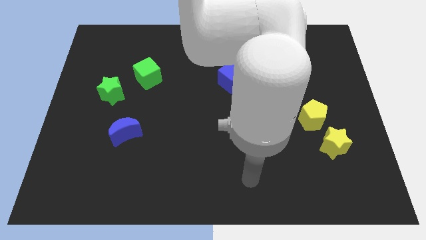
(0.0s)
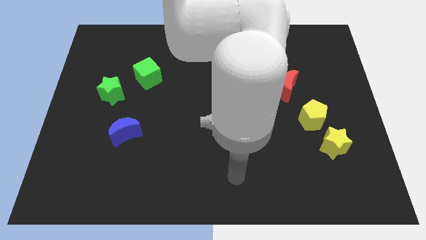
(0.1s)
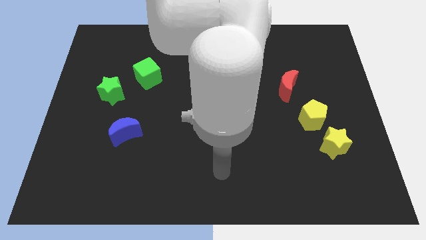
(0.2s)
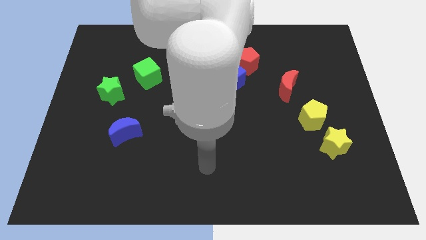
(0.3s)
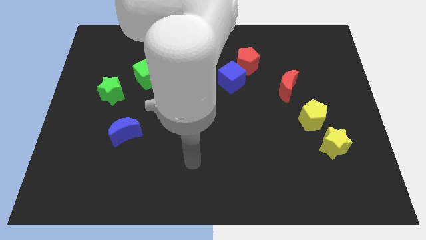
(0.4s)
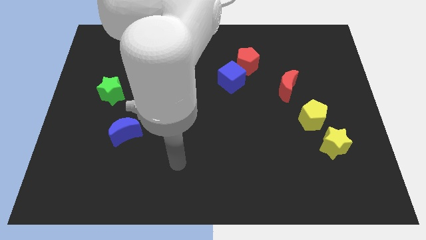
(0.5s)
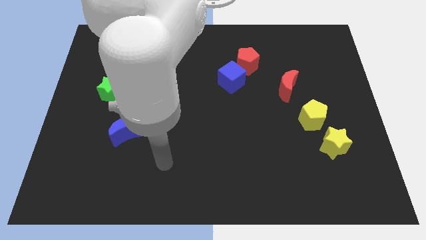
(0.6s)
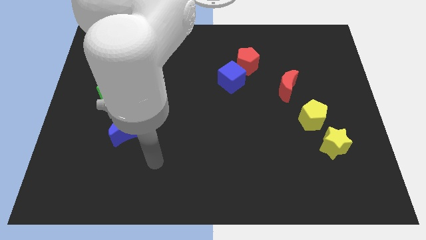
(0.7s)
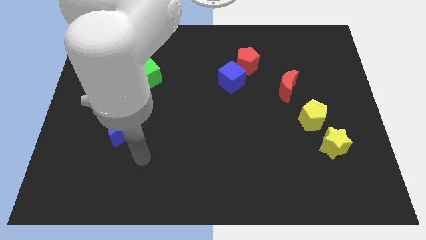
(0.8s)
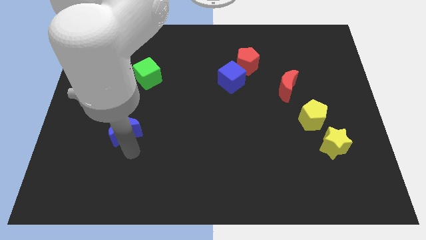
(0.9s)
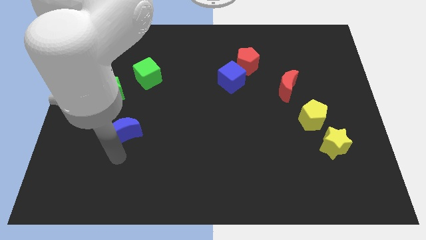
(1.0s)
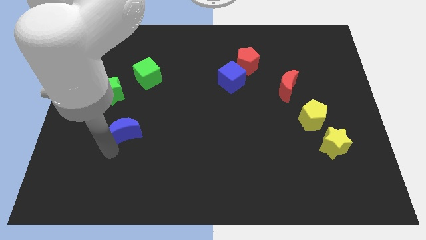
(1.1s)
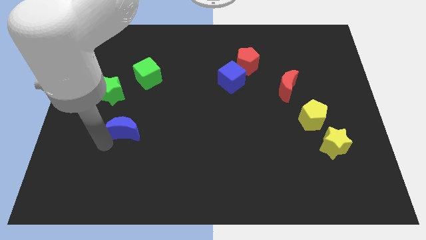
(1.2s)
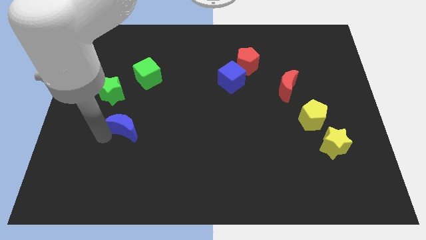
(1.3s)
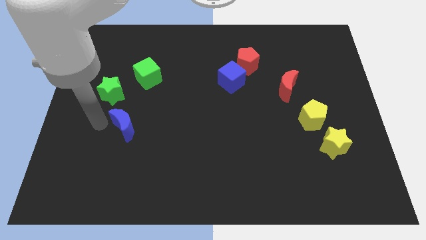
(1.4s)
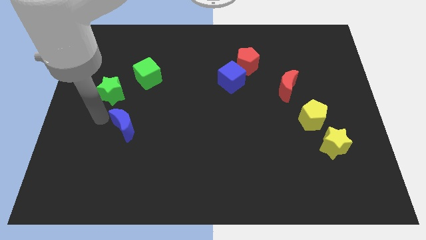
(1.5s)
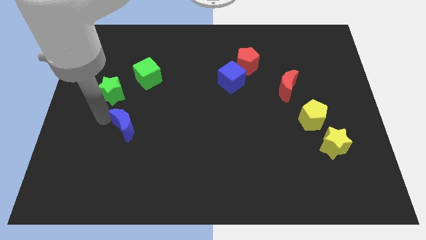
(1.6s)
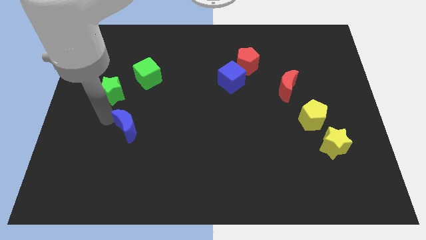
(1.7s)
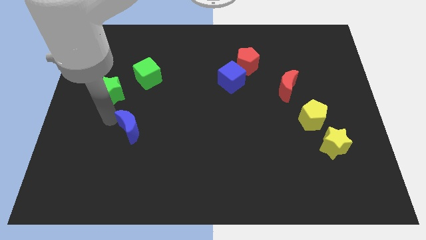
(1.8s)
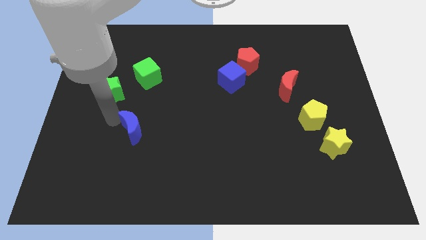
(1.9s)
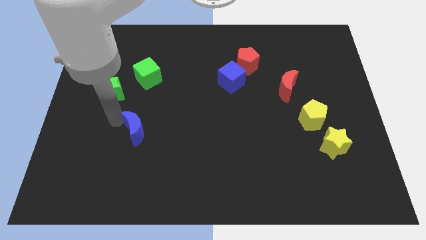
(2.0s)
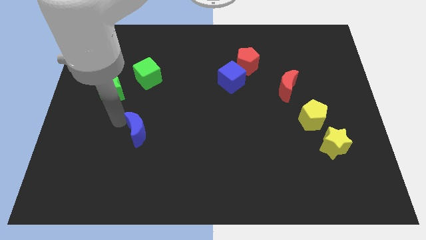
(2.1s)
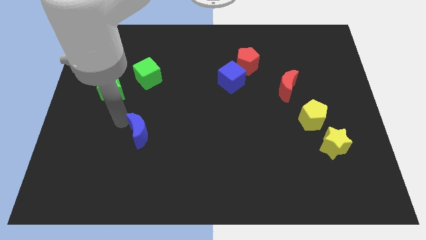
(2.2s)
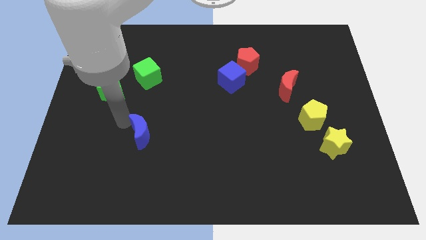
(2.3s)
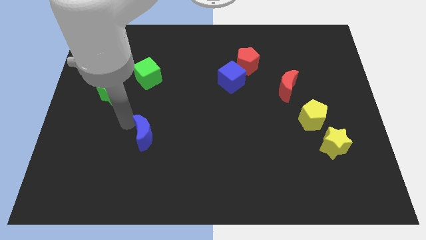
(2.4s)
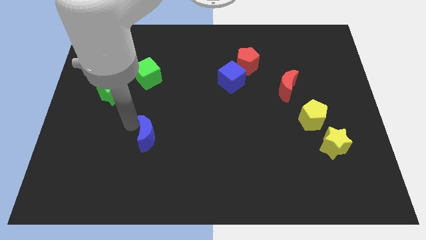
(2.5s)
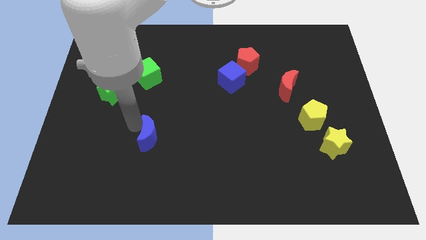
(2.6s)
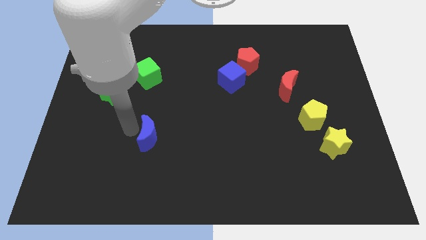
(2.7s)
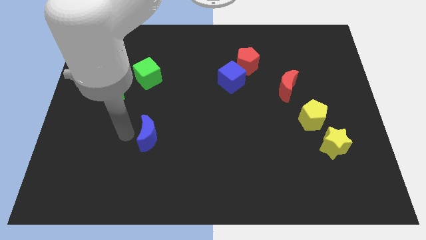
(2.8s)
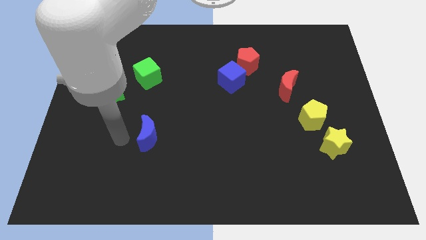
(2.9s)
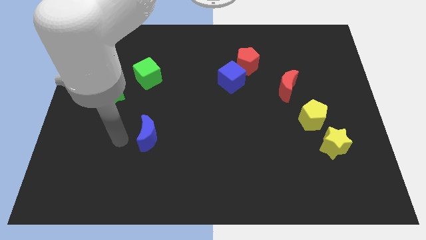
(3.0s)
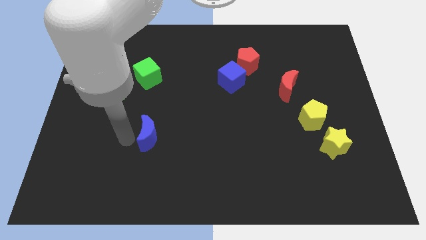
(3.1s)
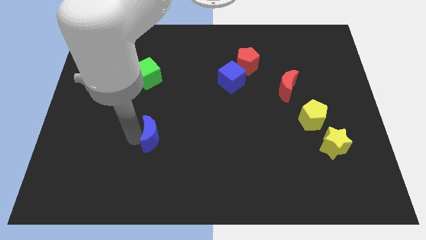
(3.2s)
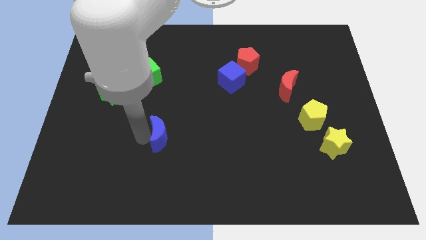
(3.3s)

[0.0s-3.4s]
slide the blue moon a bit to the right

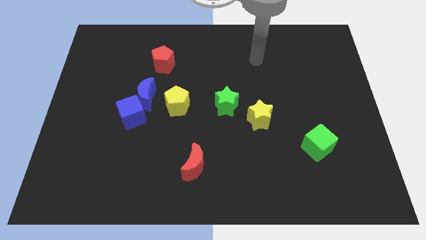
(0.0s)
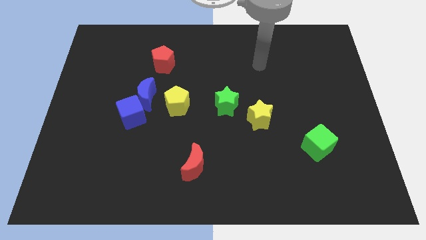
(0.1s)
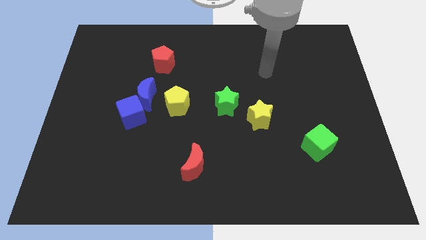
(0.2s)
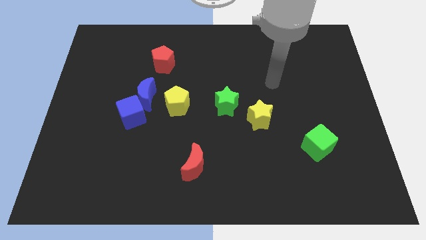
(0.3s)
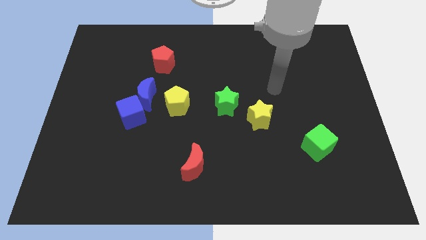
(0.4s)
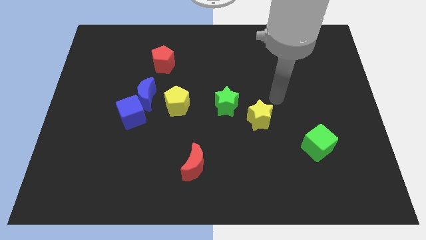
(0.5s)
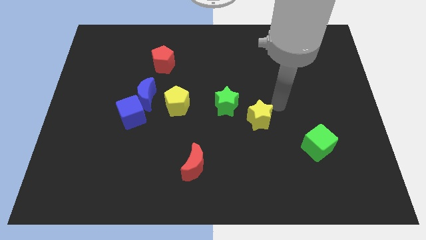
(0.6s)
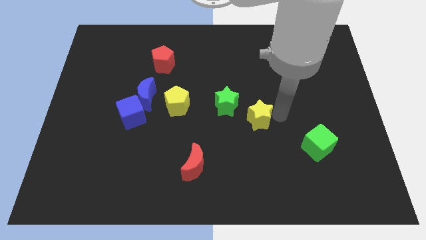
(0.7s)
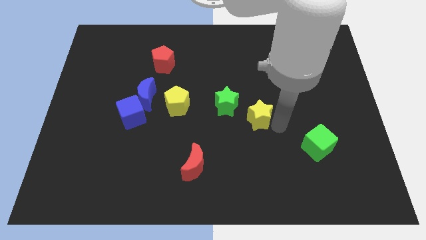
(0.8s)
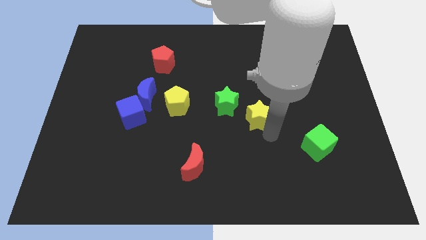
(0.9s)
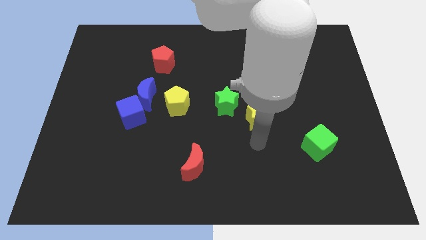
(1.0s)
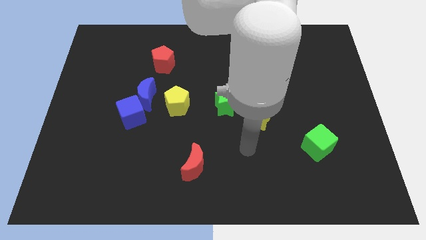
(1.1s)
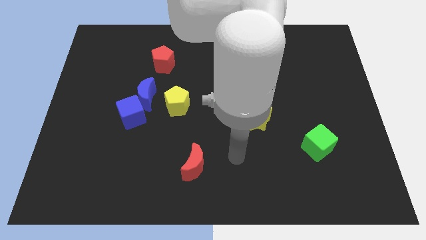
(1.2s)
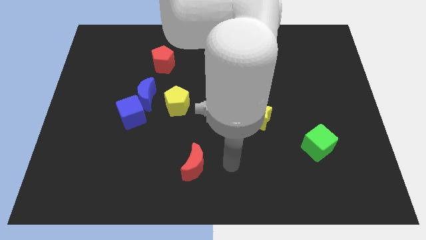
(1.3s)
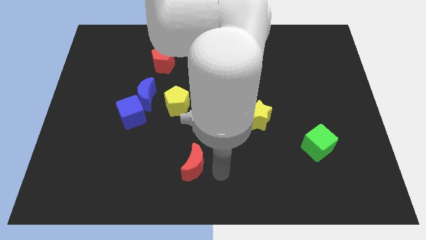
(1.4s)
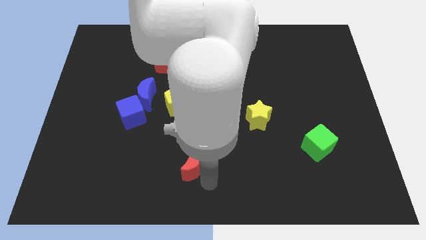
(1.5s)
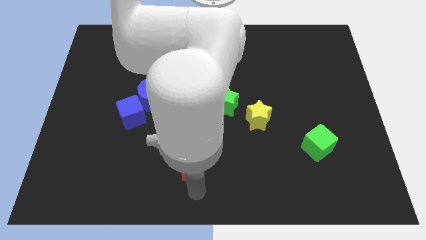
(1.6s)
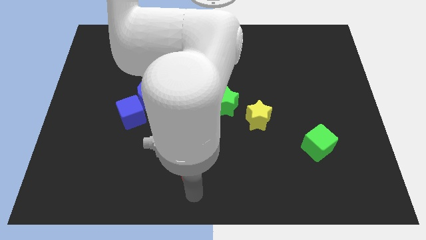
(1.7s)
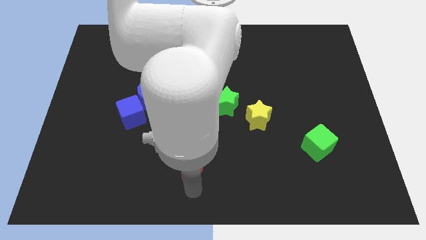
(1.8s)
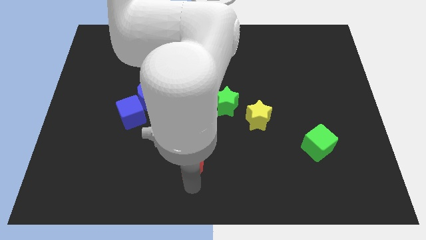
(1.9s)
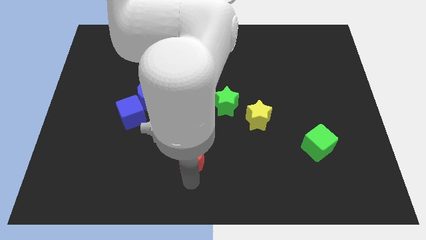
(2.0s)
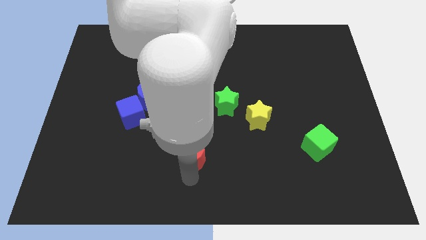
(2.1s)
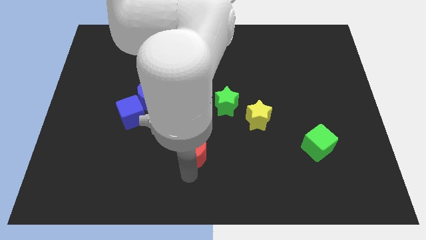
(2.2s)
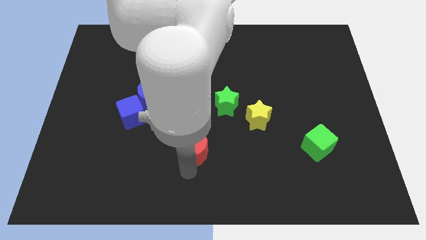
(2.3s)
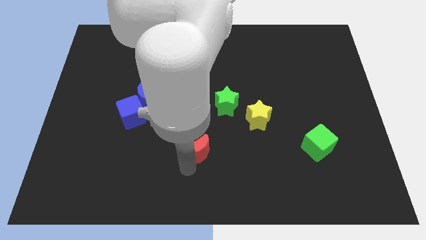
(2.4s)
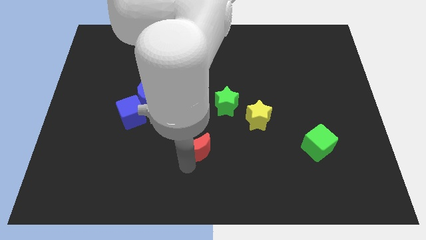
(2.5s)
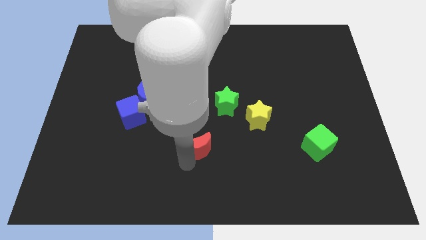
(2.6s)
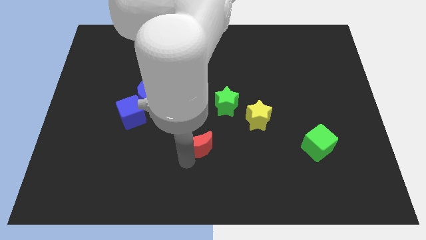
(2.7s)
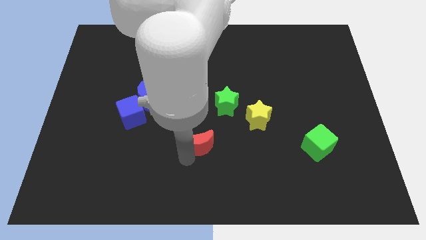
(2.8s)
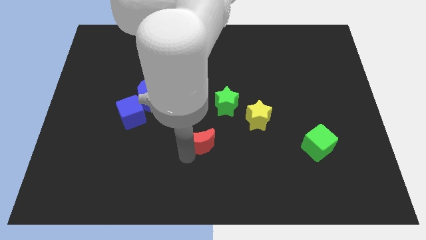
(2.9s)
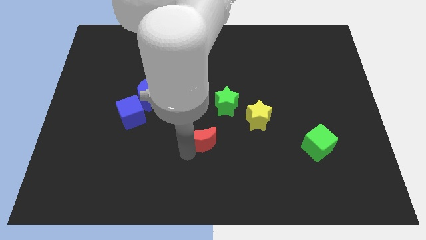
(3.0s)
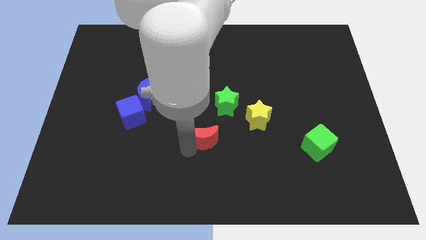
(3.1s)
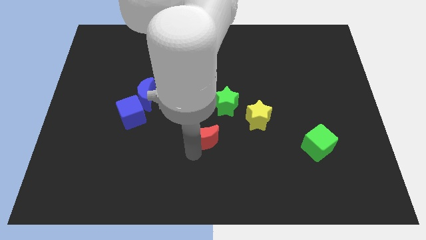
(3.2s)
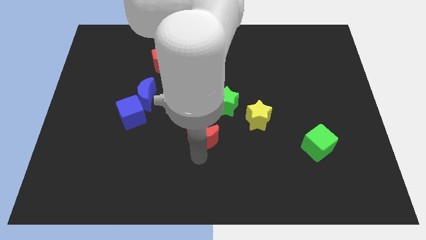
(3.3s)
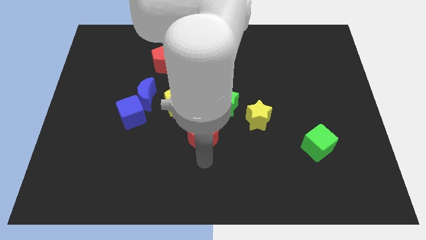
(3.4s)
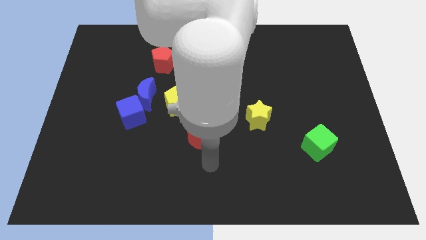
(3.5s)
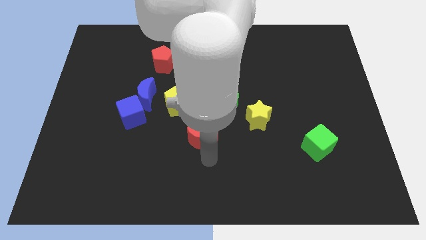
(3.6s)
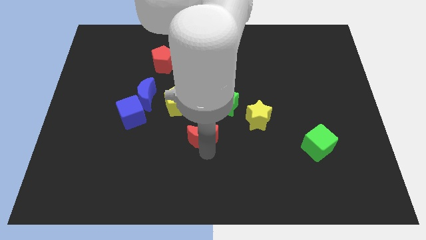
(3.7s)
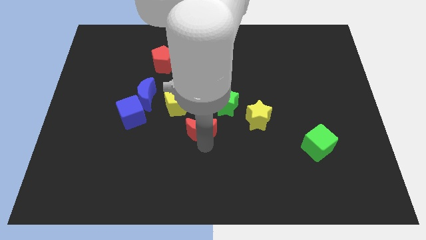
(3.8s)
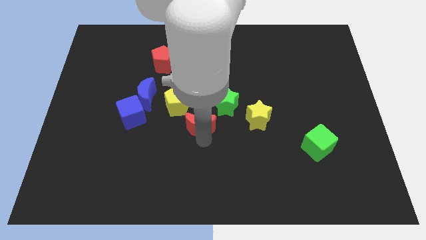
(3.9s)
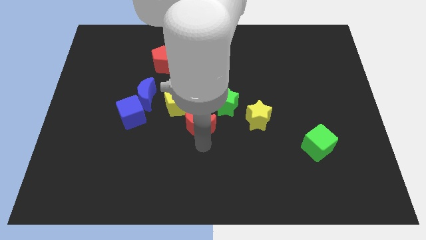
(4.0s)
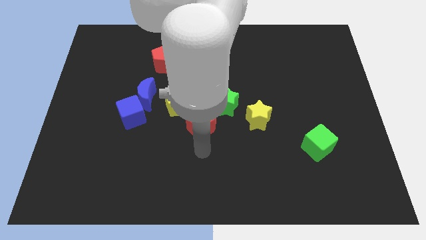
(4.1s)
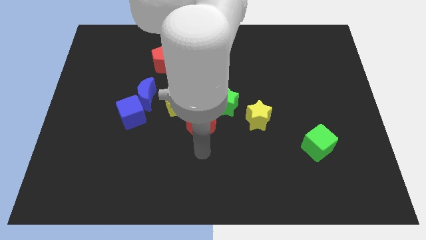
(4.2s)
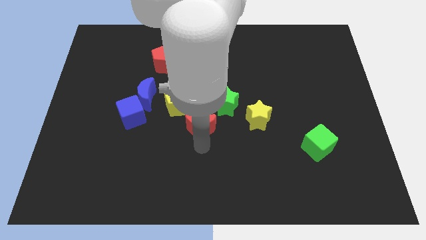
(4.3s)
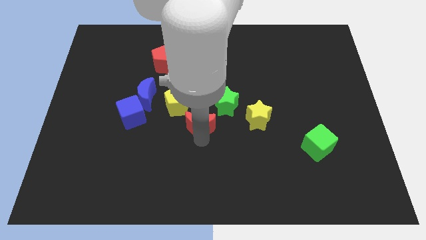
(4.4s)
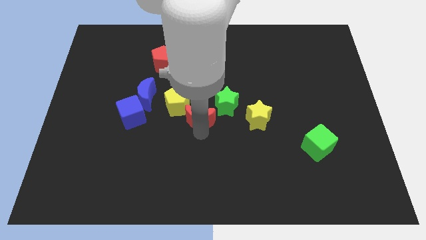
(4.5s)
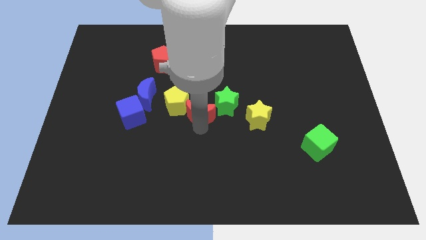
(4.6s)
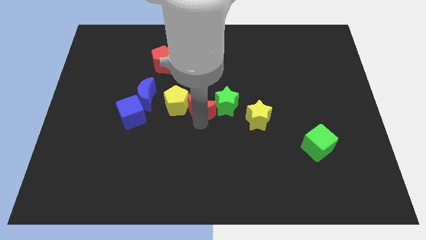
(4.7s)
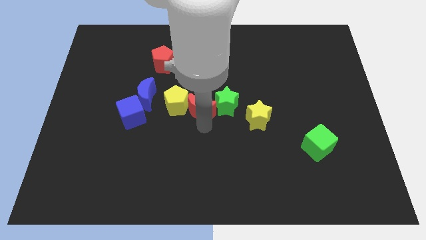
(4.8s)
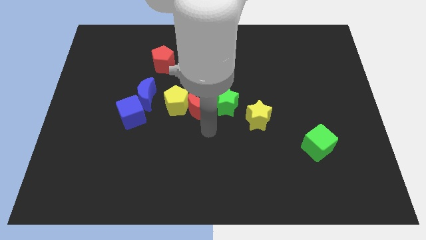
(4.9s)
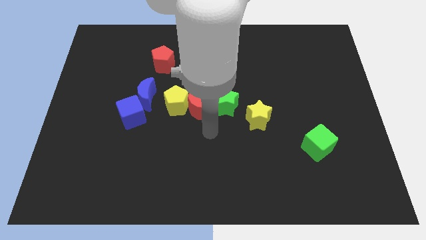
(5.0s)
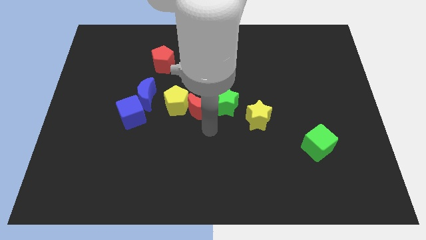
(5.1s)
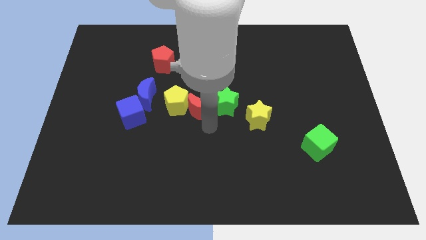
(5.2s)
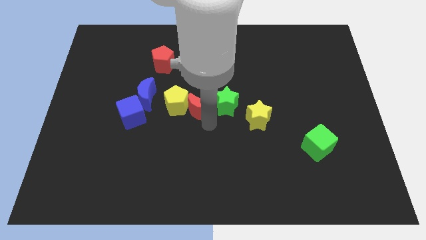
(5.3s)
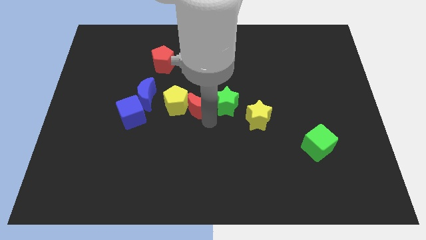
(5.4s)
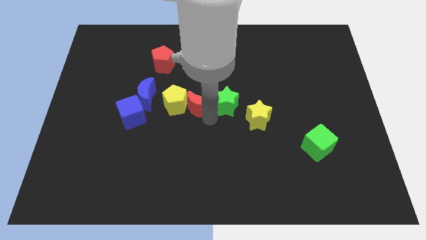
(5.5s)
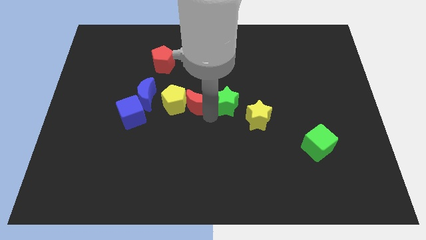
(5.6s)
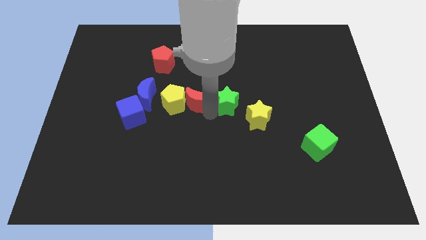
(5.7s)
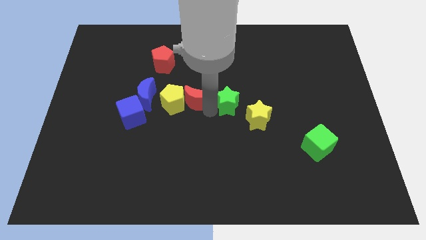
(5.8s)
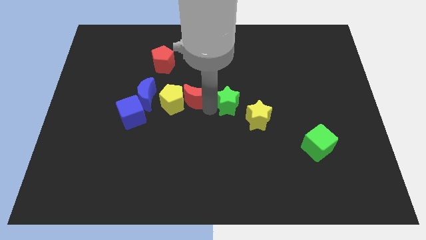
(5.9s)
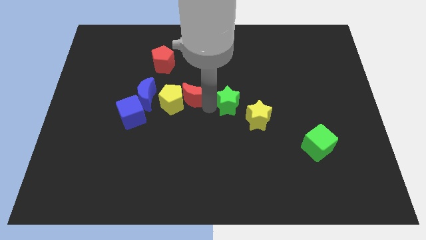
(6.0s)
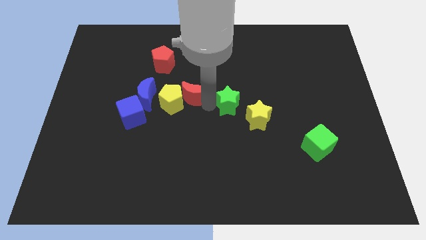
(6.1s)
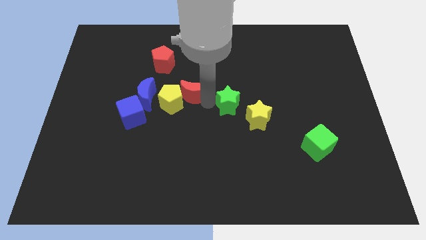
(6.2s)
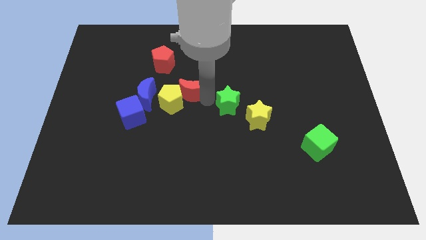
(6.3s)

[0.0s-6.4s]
slide the red moon up
